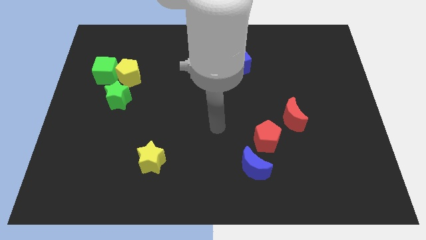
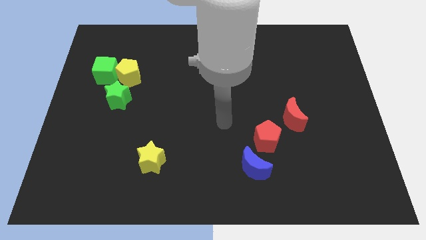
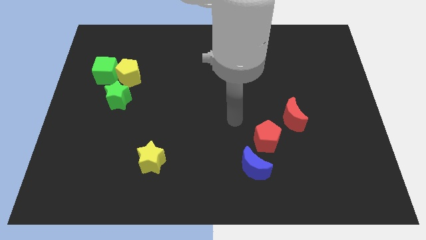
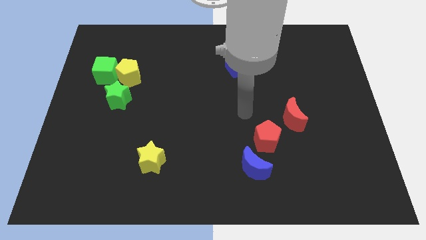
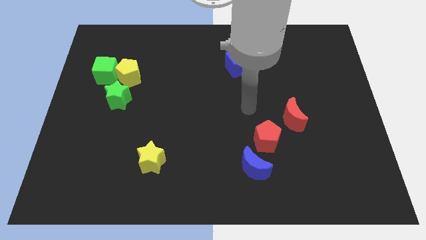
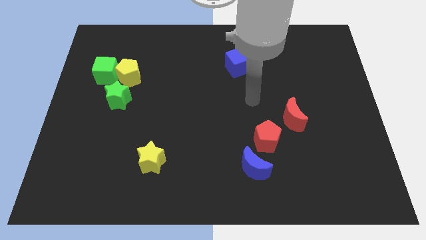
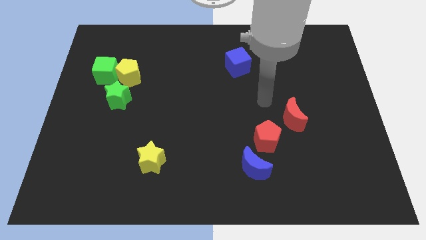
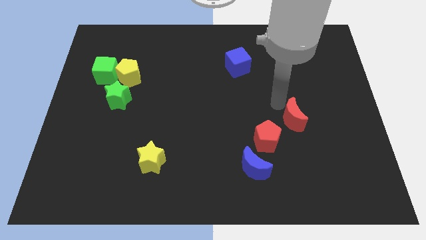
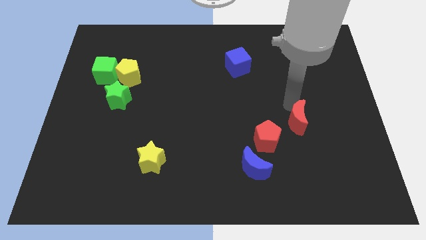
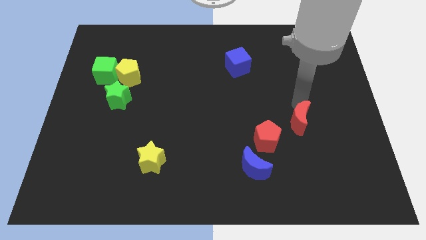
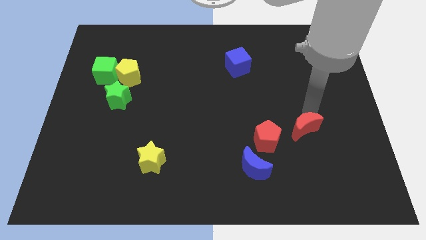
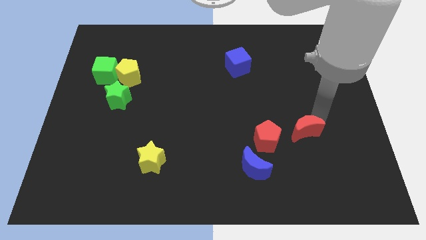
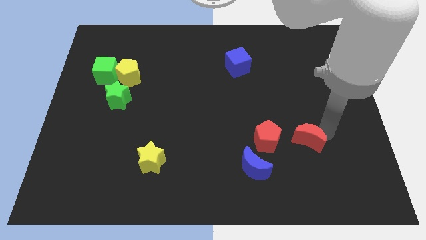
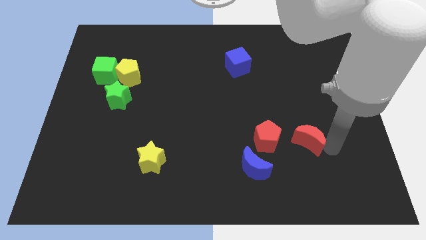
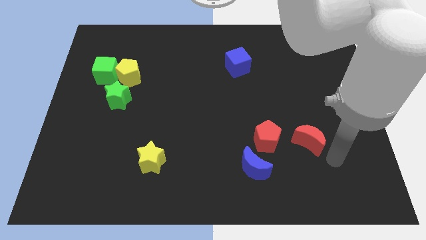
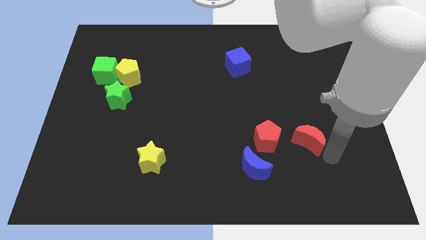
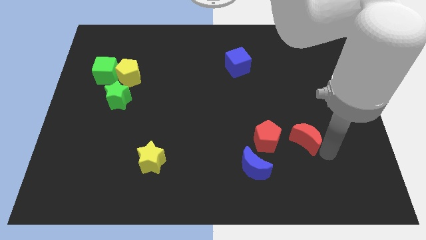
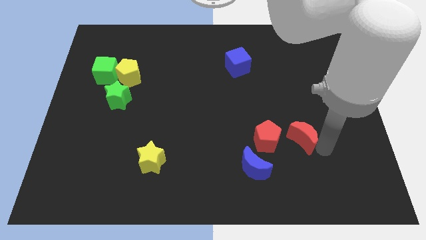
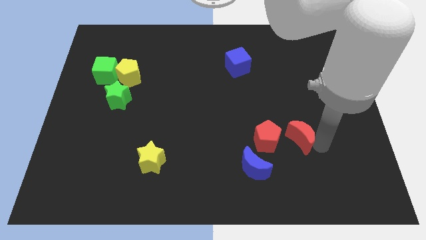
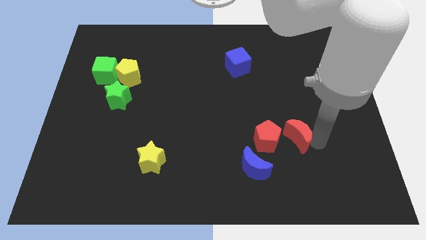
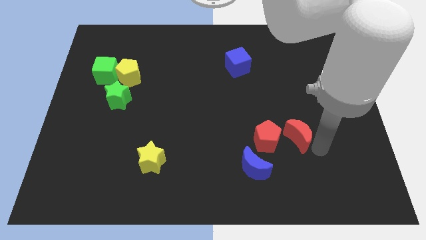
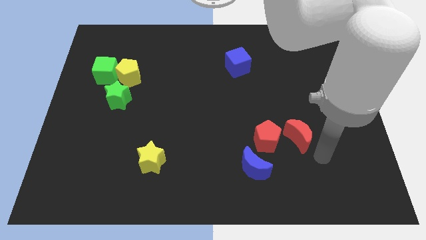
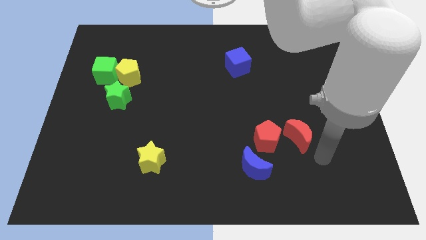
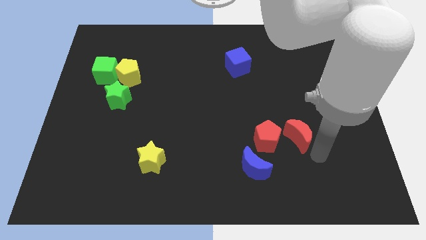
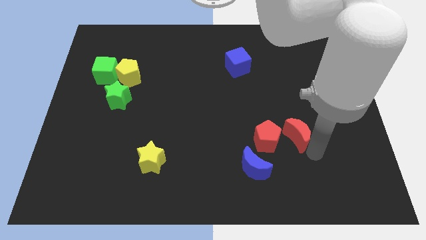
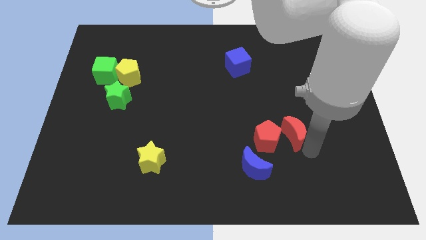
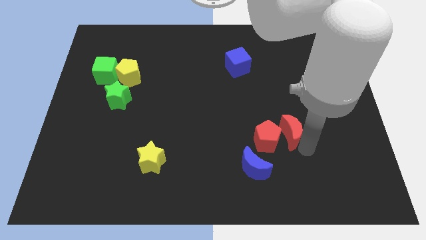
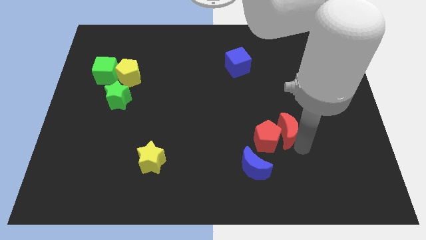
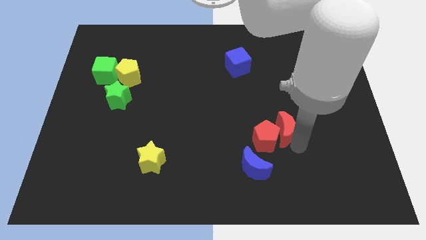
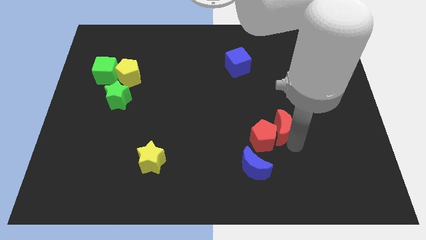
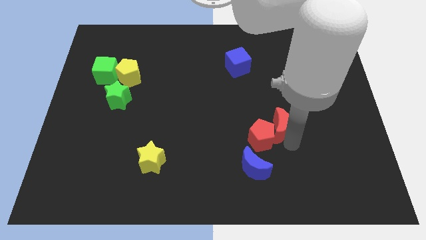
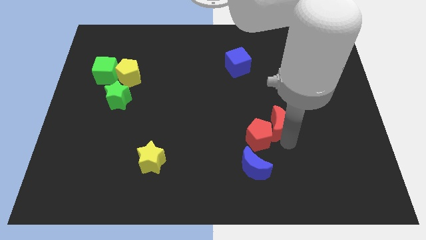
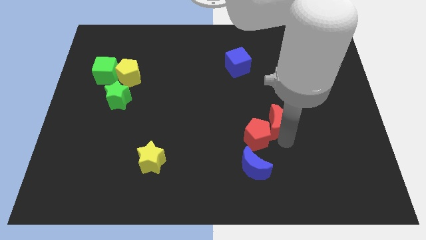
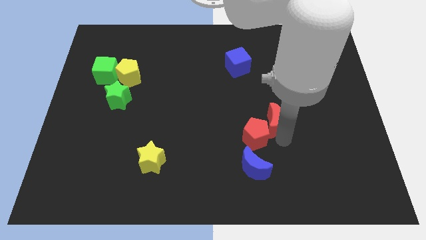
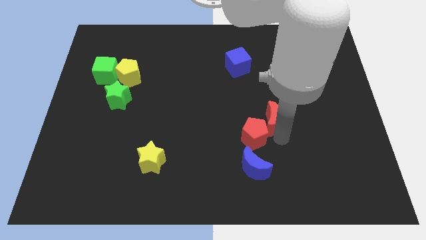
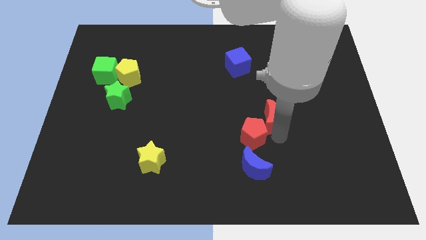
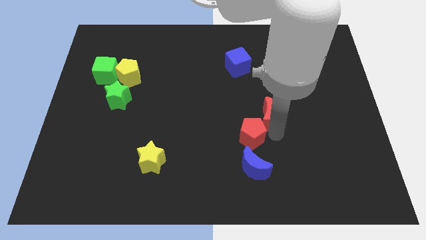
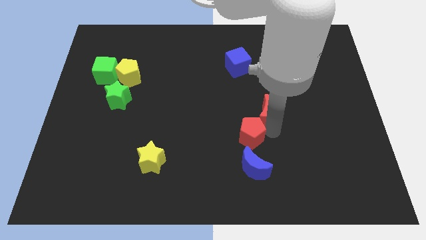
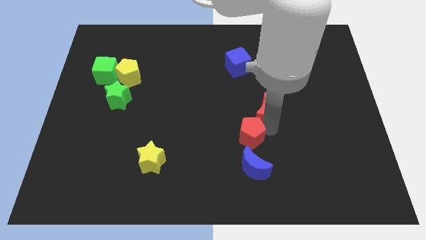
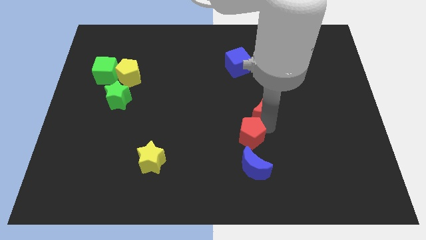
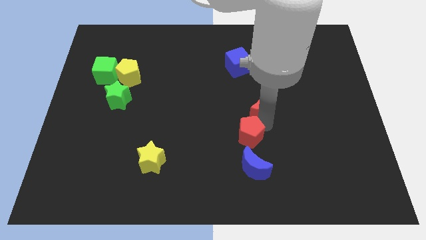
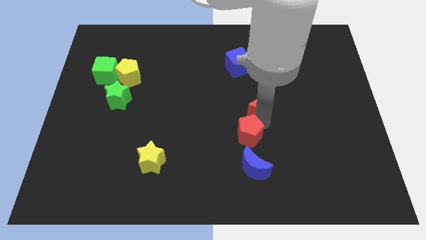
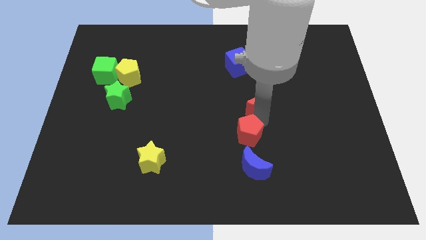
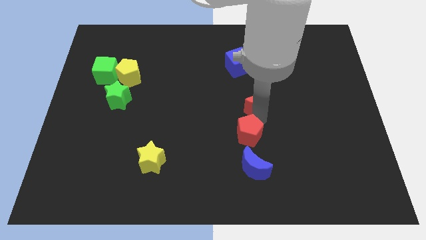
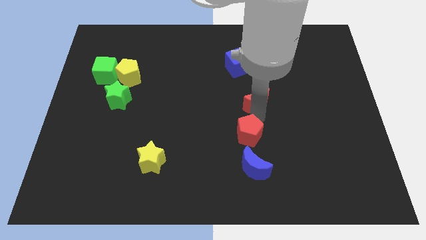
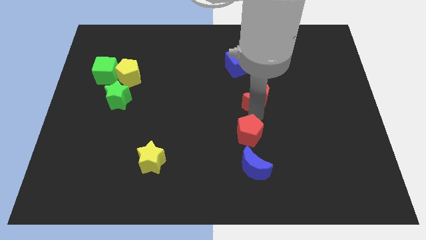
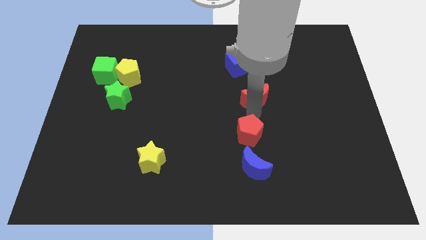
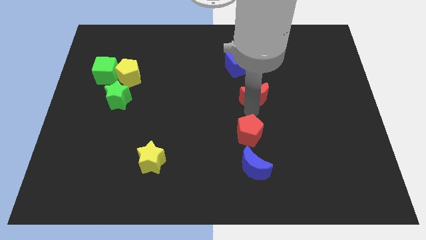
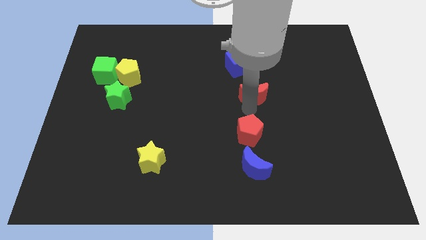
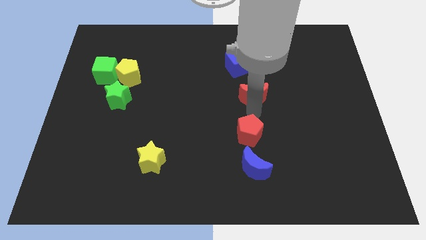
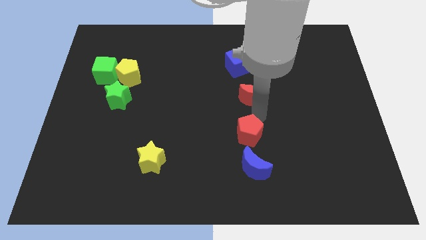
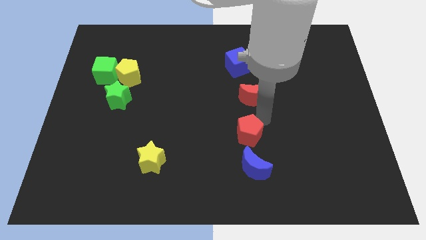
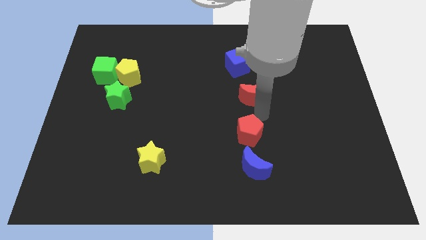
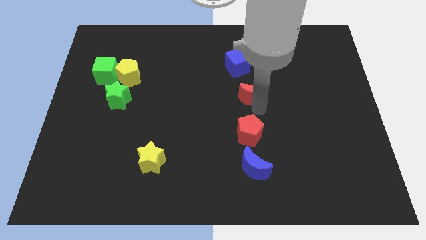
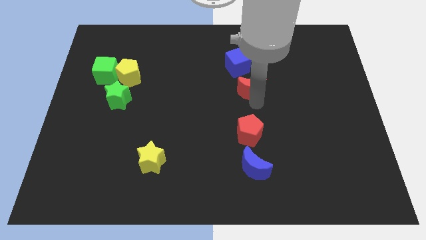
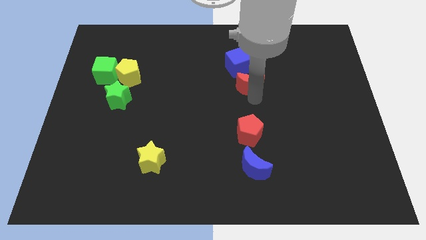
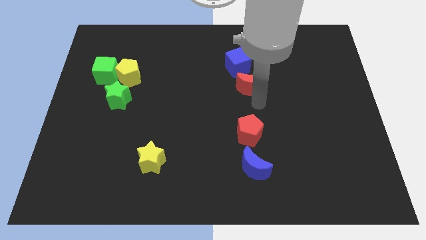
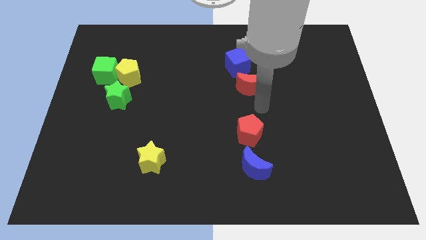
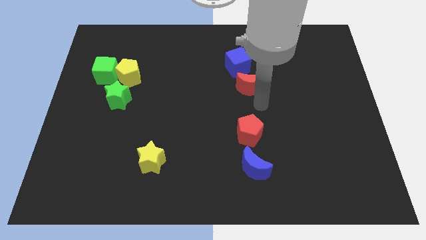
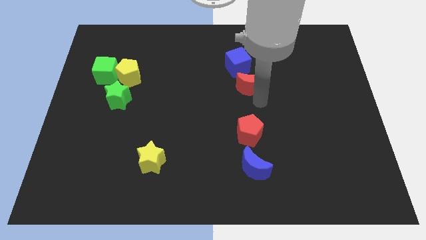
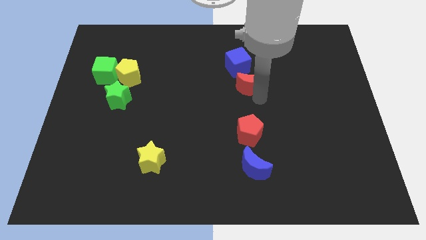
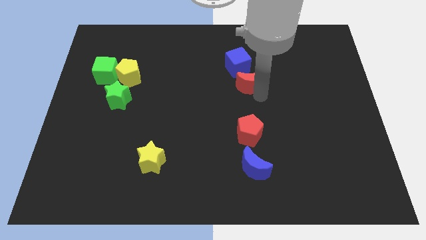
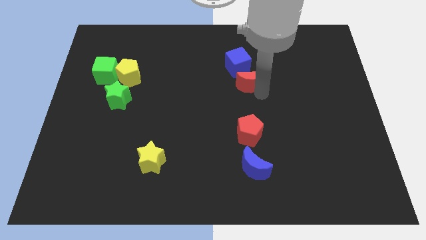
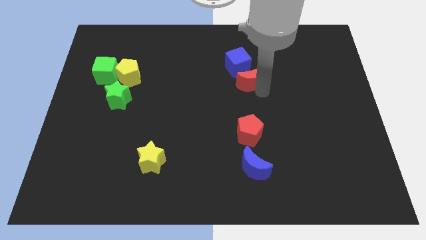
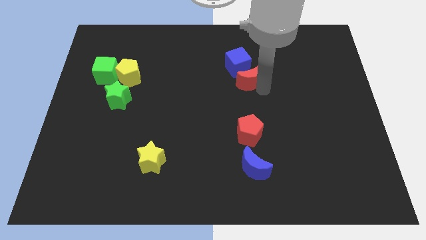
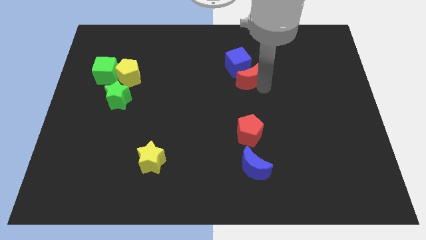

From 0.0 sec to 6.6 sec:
slide the red moon to the blue cube
